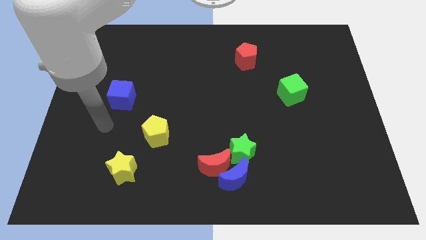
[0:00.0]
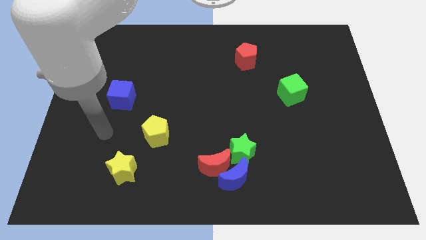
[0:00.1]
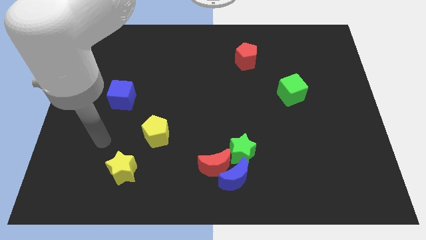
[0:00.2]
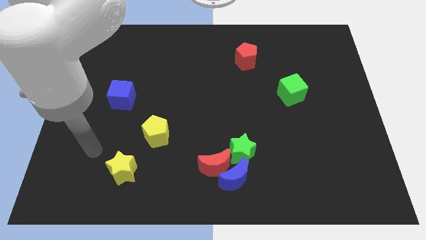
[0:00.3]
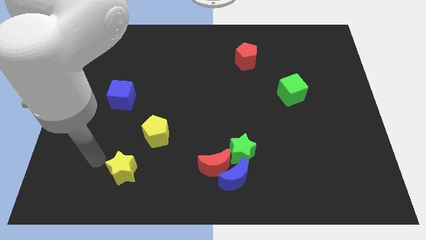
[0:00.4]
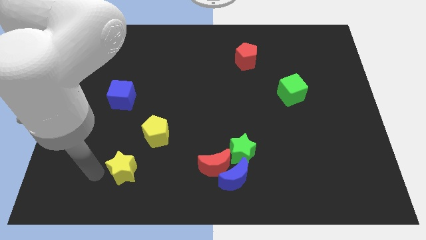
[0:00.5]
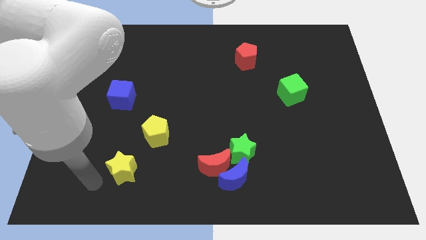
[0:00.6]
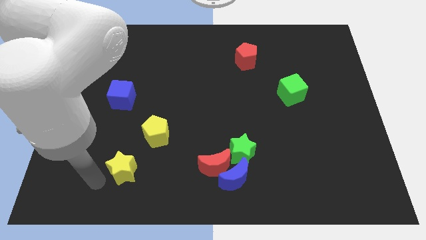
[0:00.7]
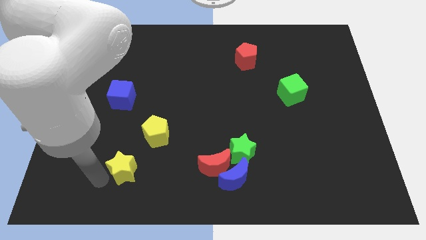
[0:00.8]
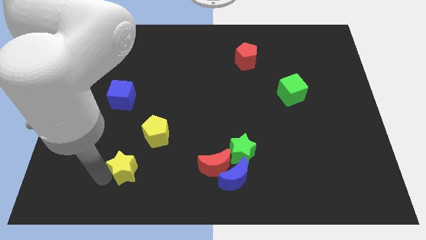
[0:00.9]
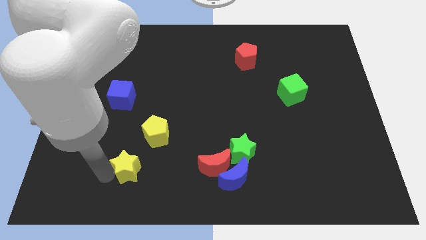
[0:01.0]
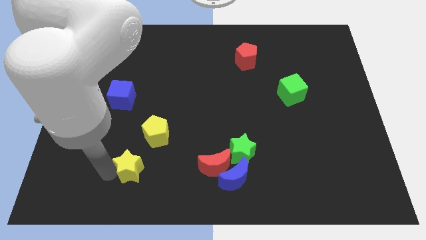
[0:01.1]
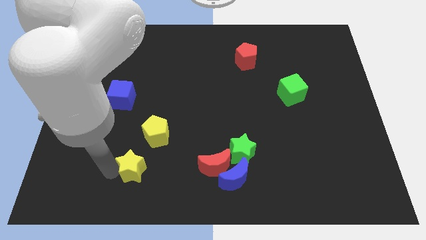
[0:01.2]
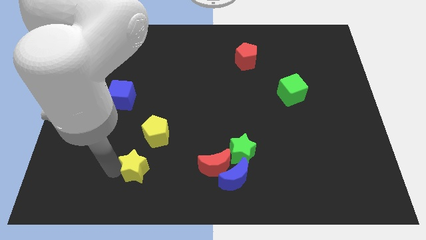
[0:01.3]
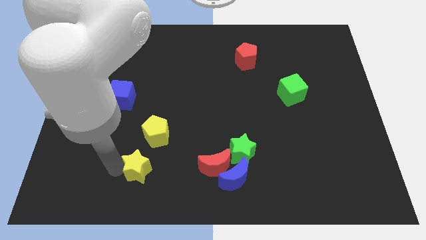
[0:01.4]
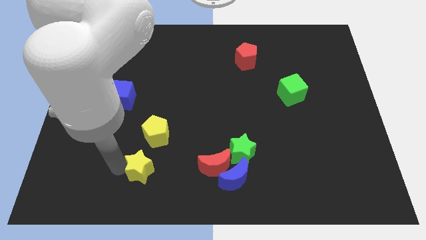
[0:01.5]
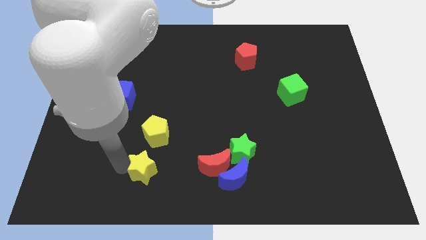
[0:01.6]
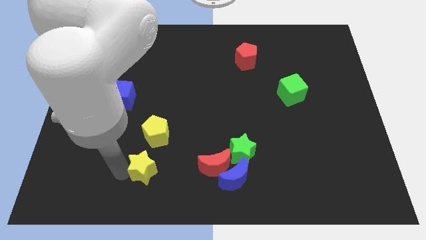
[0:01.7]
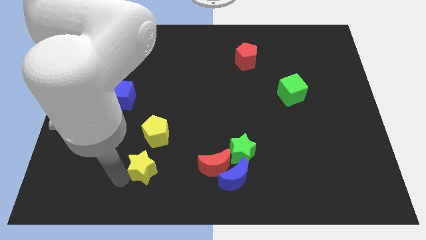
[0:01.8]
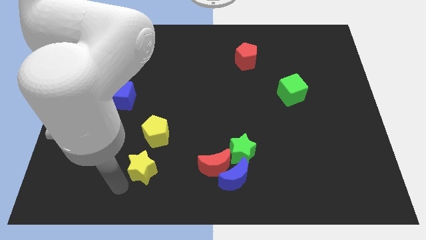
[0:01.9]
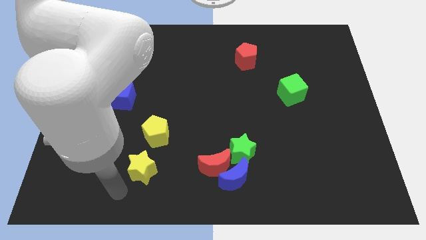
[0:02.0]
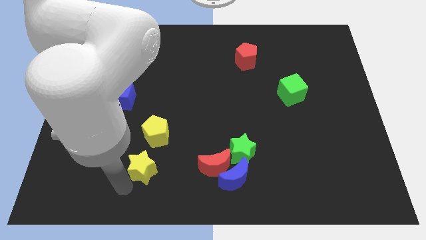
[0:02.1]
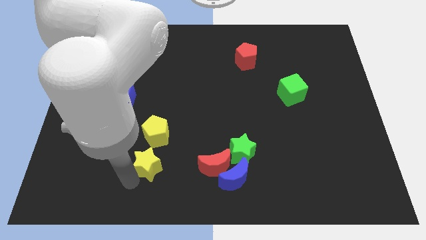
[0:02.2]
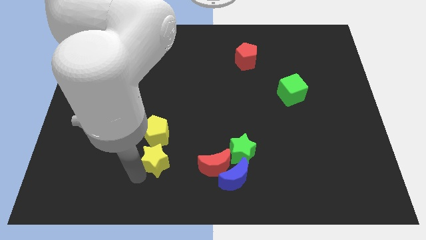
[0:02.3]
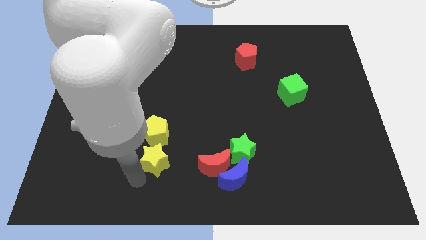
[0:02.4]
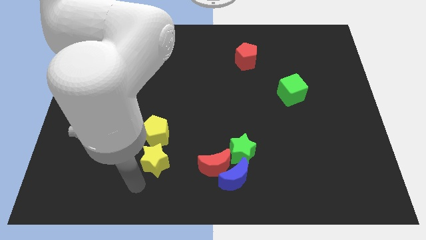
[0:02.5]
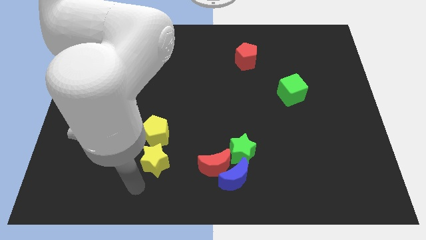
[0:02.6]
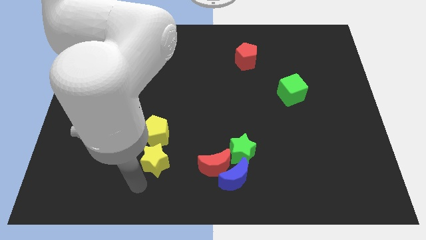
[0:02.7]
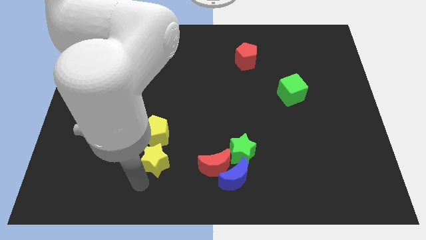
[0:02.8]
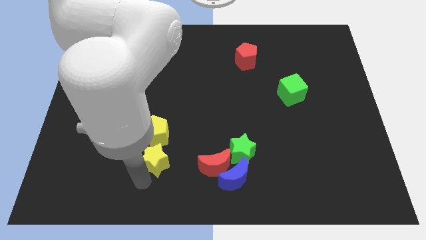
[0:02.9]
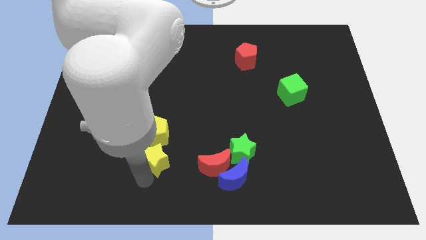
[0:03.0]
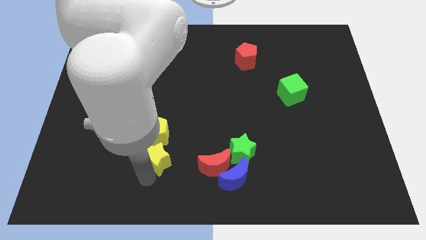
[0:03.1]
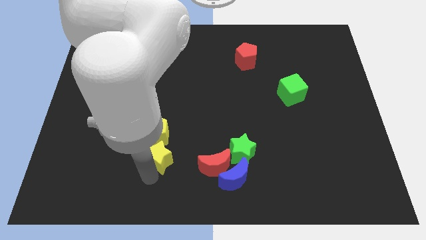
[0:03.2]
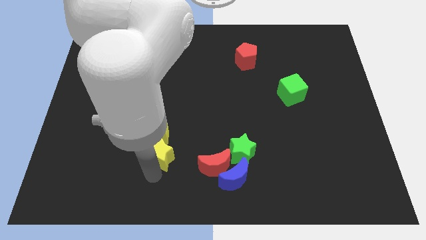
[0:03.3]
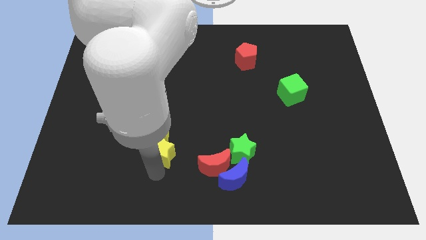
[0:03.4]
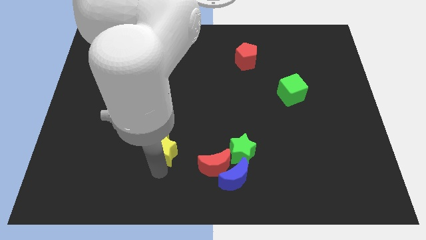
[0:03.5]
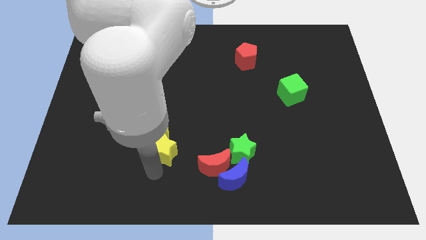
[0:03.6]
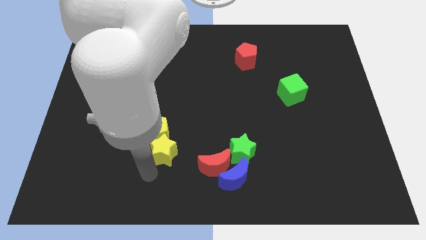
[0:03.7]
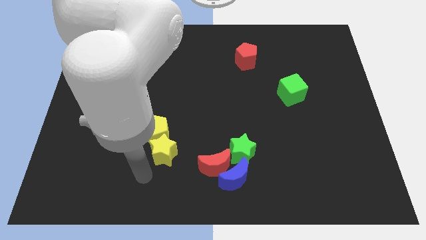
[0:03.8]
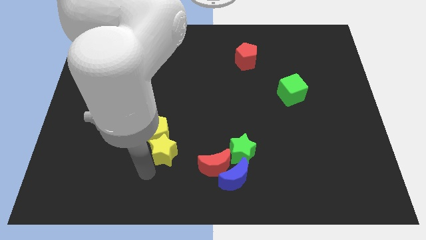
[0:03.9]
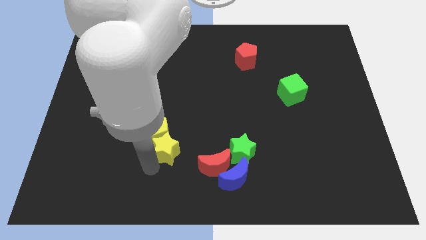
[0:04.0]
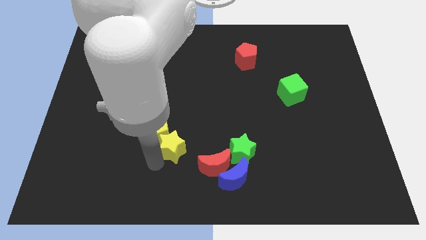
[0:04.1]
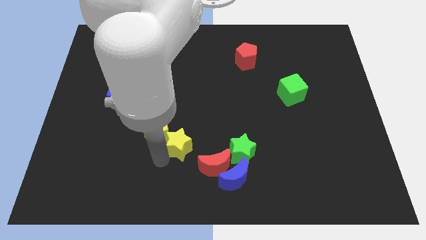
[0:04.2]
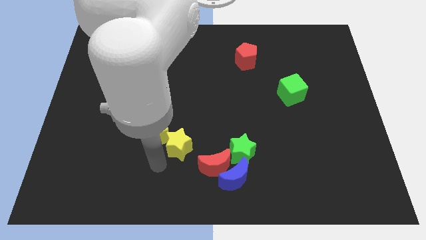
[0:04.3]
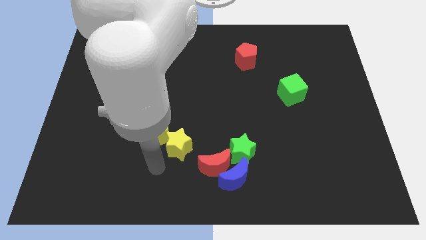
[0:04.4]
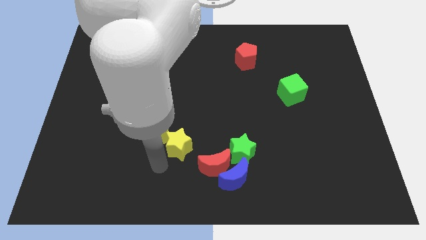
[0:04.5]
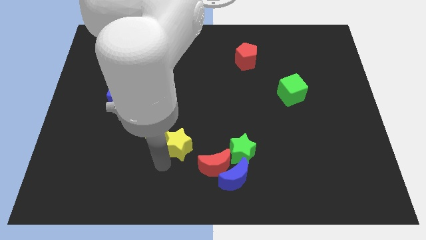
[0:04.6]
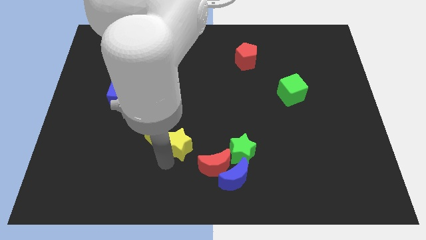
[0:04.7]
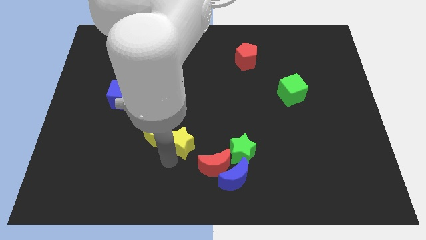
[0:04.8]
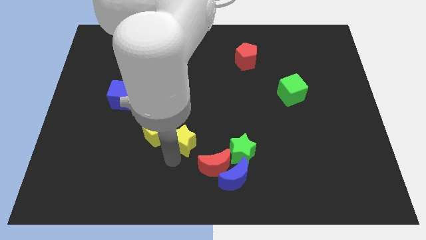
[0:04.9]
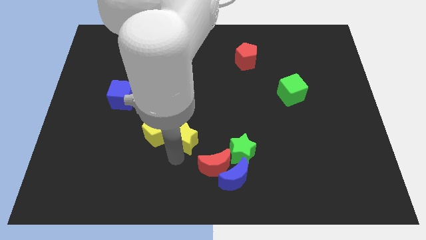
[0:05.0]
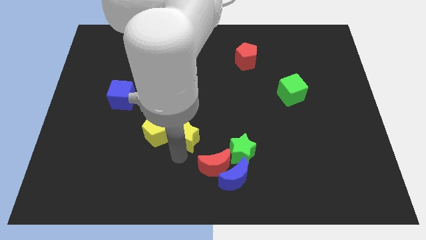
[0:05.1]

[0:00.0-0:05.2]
put the yellow star to the middle of the board
